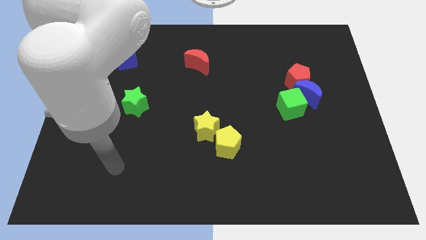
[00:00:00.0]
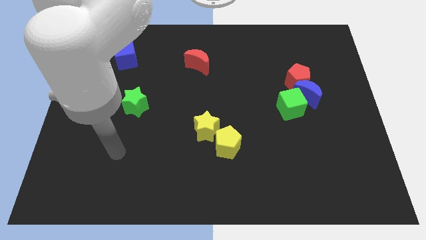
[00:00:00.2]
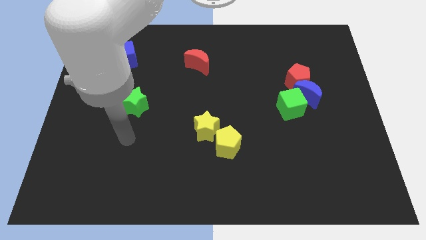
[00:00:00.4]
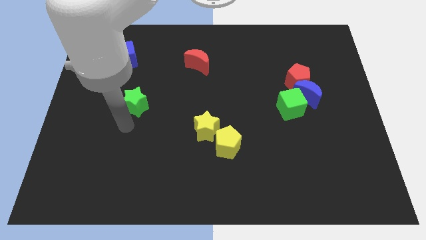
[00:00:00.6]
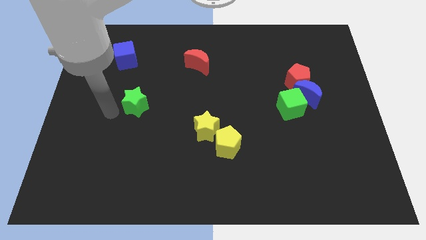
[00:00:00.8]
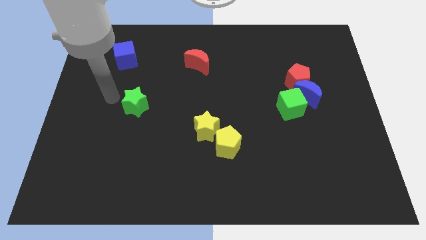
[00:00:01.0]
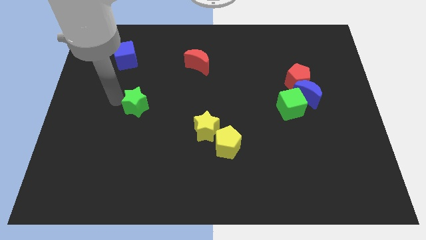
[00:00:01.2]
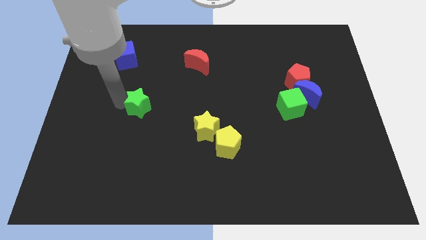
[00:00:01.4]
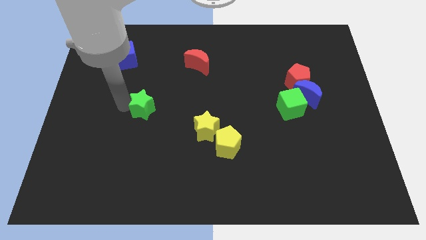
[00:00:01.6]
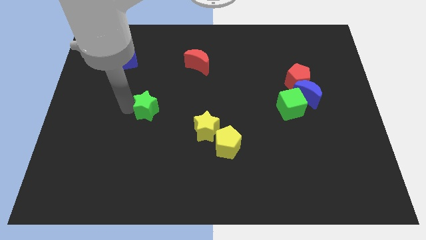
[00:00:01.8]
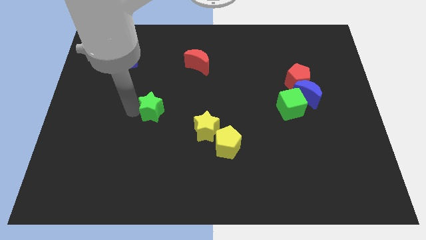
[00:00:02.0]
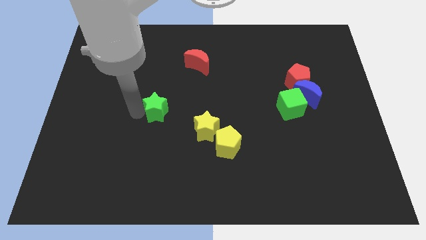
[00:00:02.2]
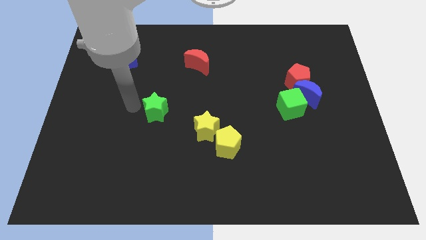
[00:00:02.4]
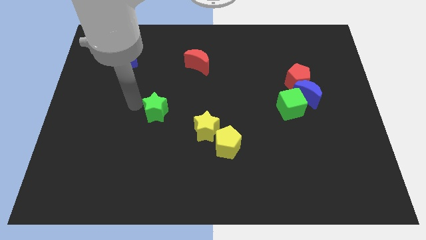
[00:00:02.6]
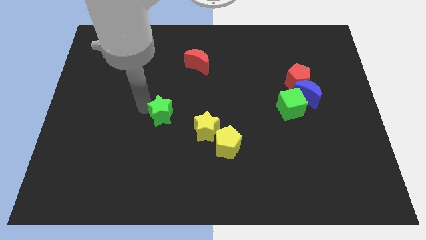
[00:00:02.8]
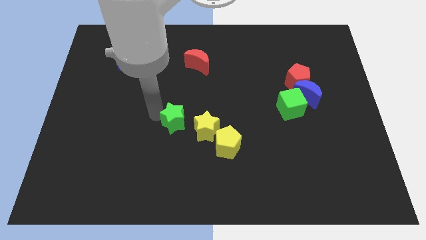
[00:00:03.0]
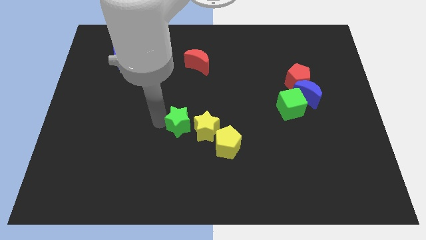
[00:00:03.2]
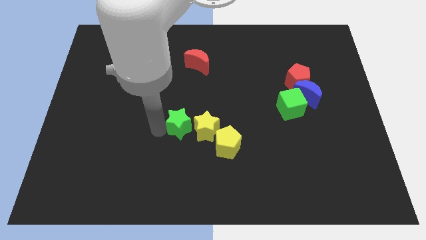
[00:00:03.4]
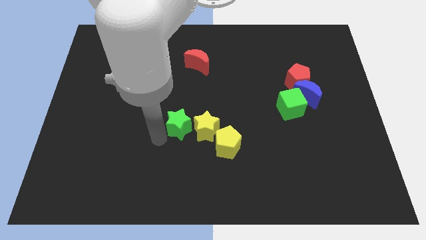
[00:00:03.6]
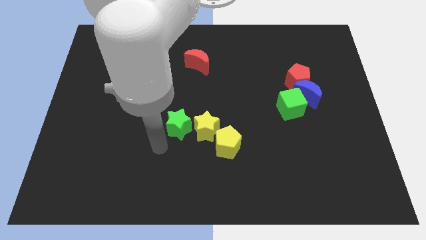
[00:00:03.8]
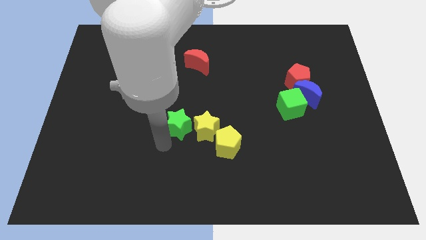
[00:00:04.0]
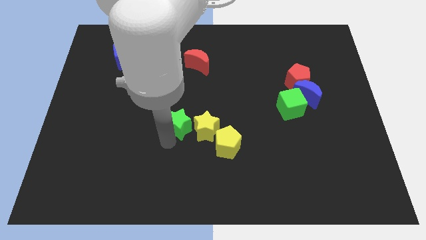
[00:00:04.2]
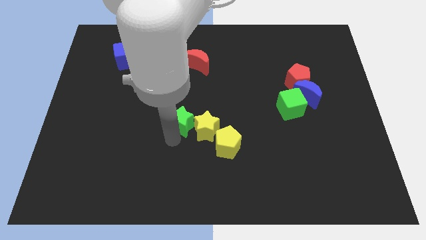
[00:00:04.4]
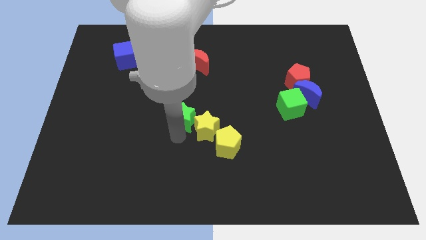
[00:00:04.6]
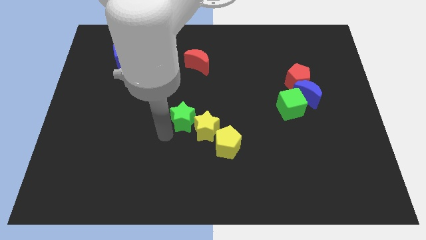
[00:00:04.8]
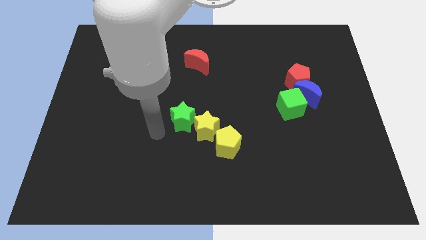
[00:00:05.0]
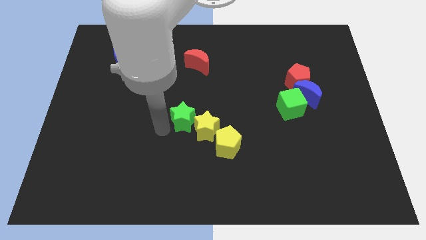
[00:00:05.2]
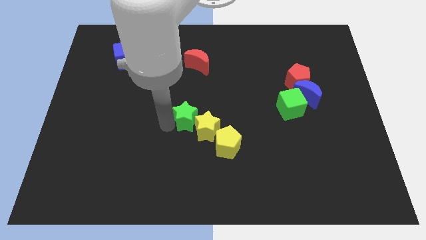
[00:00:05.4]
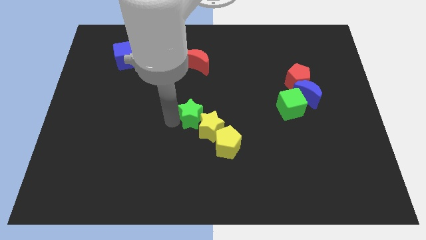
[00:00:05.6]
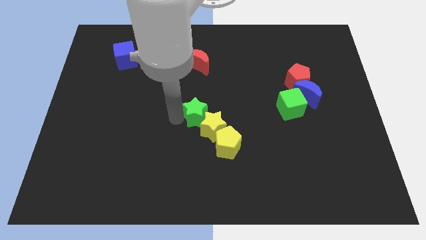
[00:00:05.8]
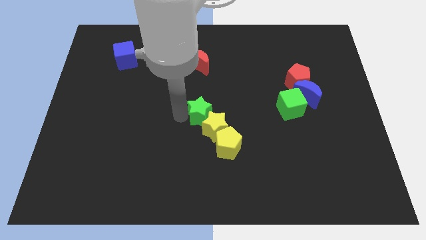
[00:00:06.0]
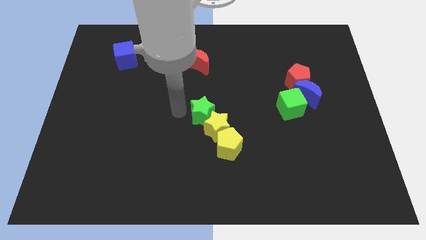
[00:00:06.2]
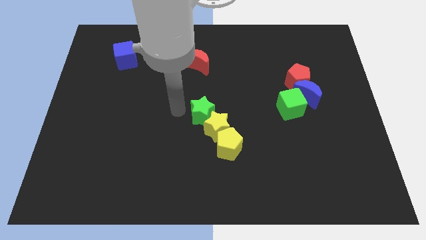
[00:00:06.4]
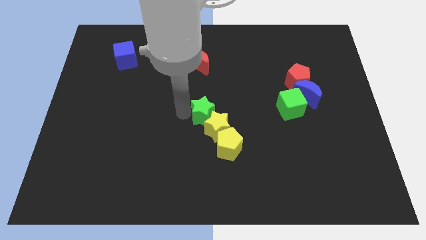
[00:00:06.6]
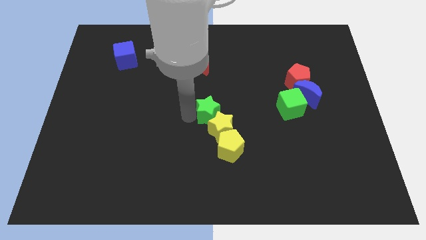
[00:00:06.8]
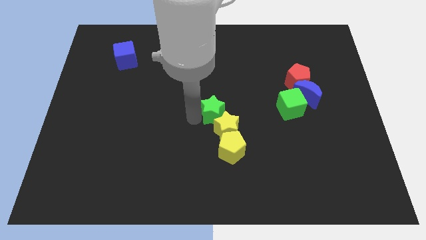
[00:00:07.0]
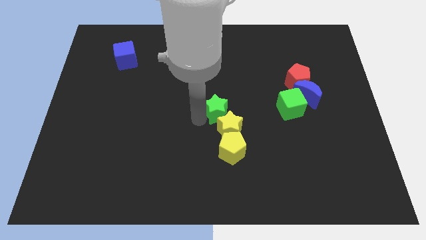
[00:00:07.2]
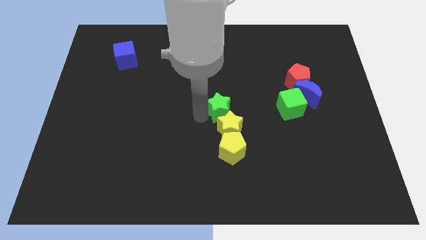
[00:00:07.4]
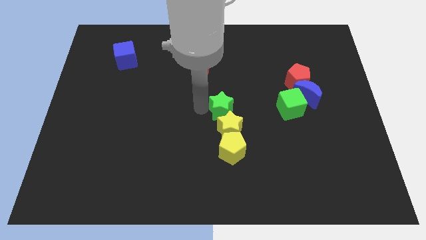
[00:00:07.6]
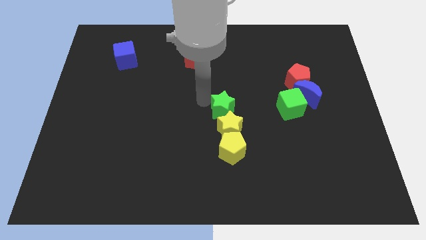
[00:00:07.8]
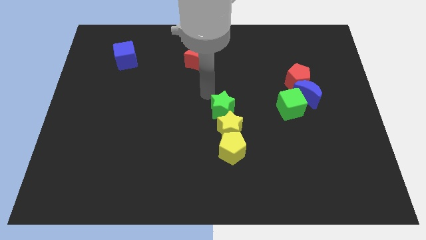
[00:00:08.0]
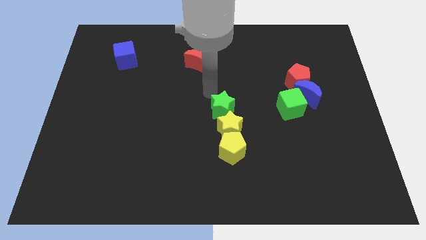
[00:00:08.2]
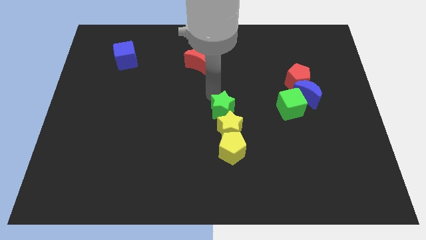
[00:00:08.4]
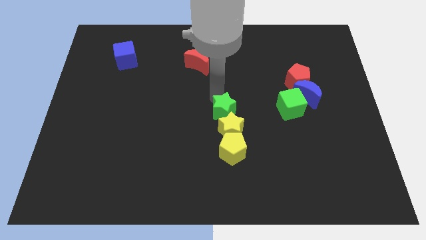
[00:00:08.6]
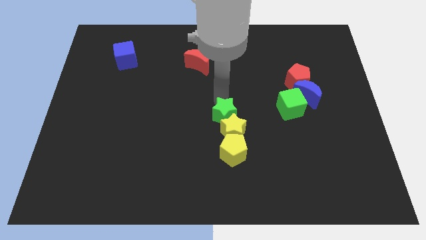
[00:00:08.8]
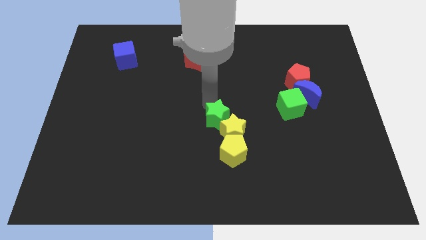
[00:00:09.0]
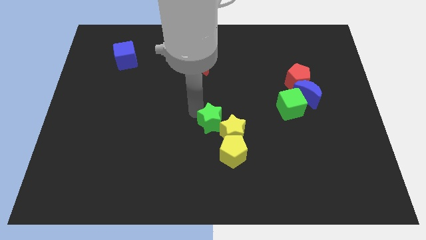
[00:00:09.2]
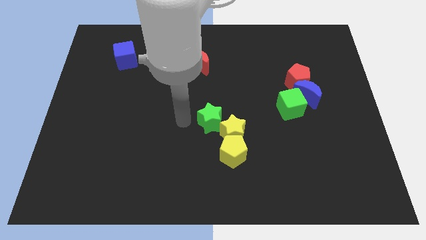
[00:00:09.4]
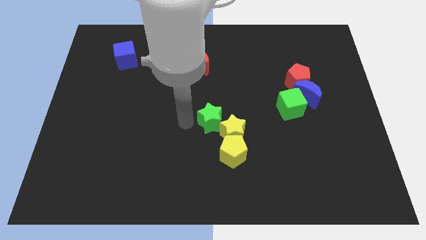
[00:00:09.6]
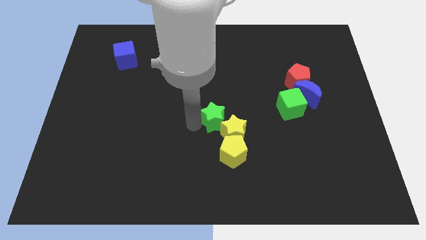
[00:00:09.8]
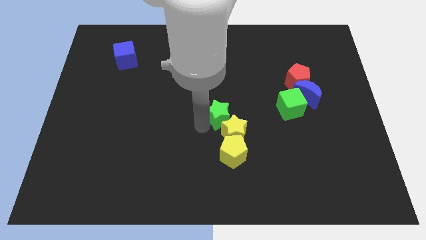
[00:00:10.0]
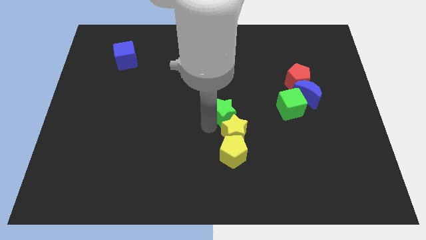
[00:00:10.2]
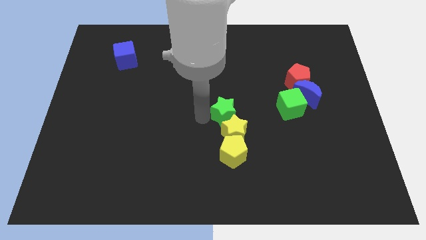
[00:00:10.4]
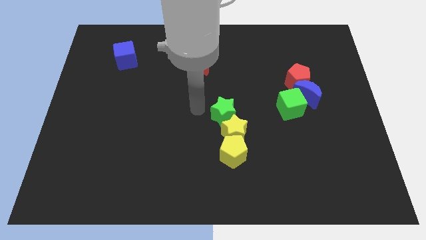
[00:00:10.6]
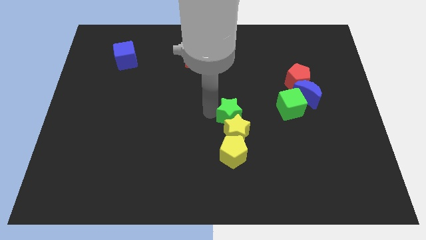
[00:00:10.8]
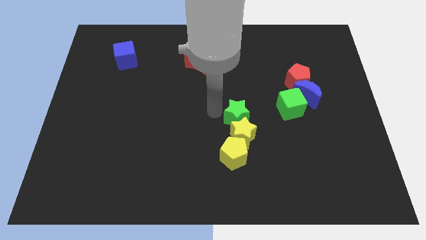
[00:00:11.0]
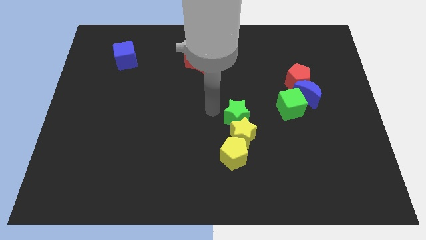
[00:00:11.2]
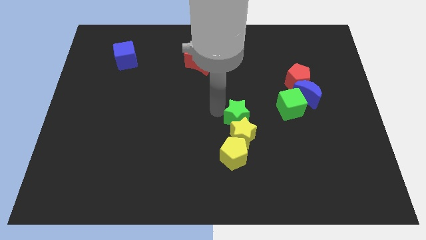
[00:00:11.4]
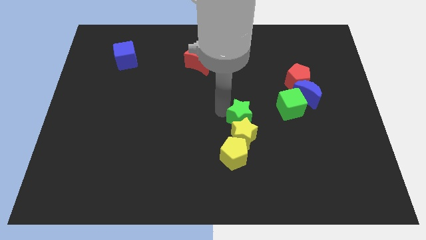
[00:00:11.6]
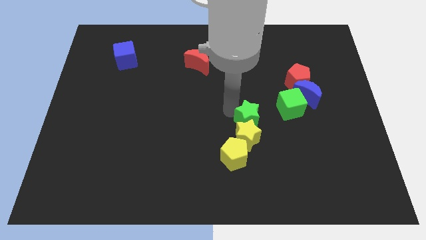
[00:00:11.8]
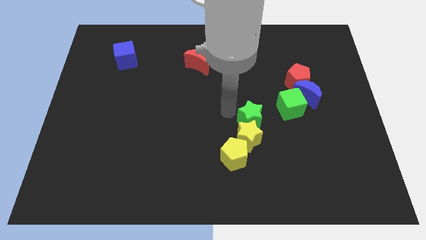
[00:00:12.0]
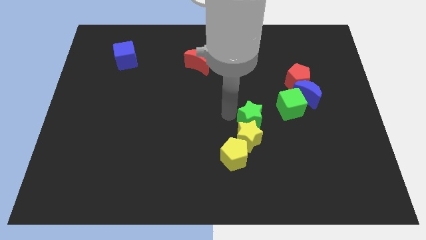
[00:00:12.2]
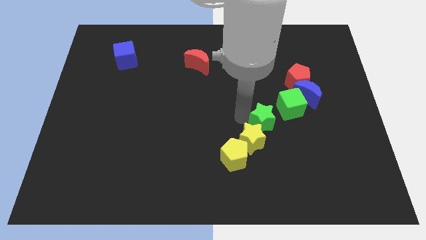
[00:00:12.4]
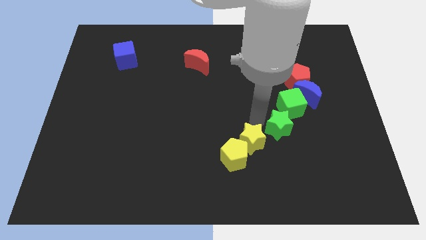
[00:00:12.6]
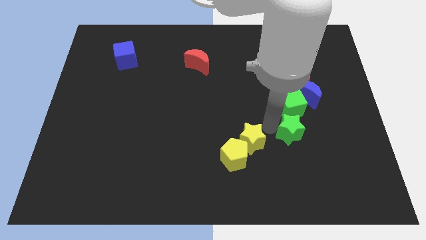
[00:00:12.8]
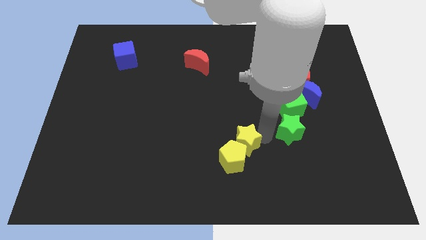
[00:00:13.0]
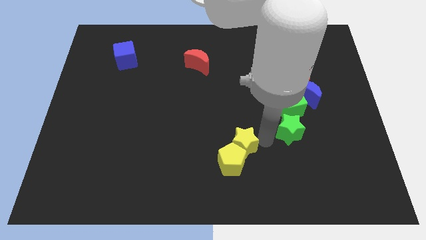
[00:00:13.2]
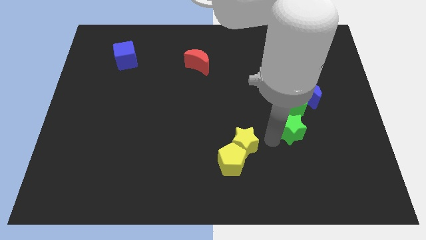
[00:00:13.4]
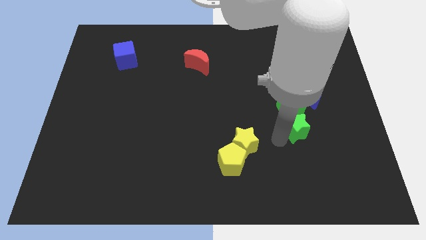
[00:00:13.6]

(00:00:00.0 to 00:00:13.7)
put the green star to the bottom right of the green cube

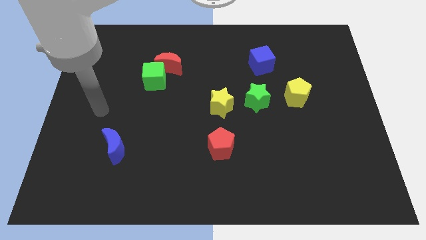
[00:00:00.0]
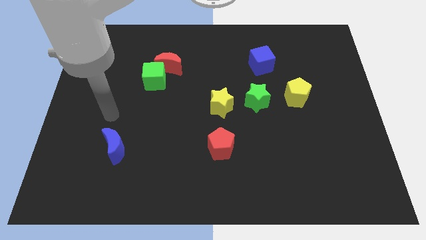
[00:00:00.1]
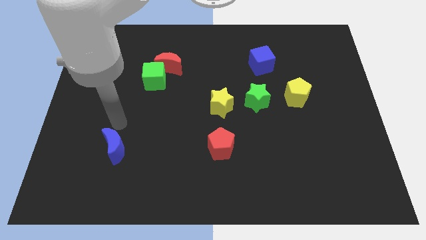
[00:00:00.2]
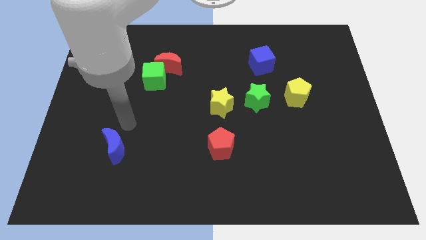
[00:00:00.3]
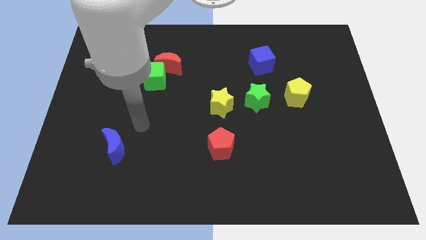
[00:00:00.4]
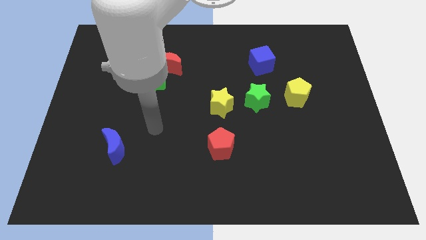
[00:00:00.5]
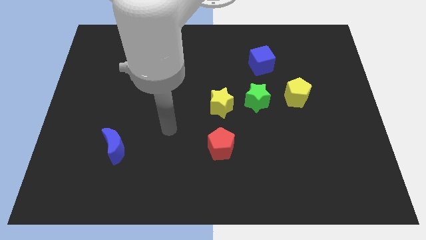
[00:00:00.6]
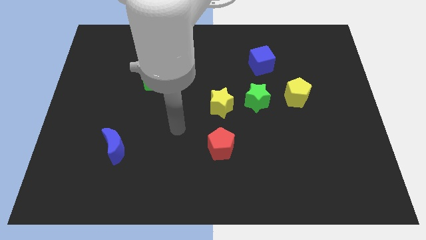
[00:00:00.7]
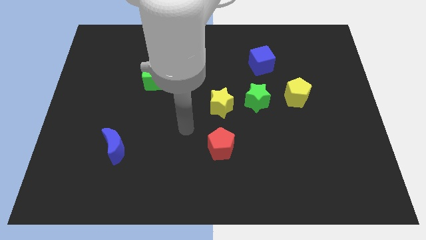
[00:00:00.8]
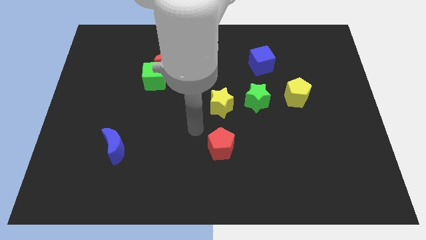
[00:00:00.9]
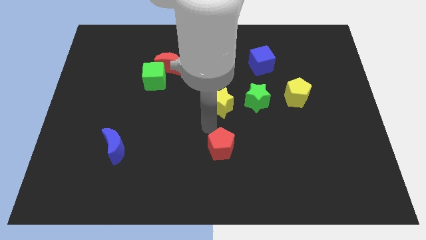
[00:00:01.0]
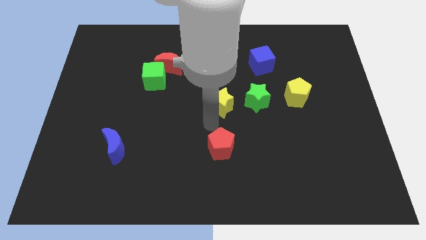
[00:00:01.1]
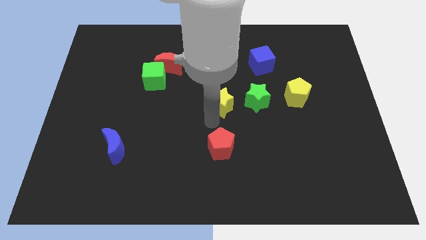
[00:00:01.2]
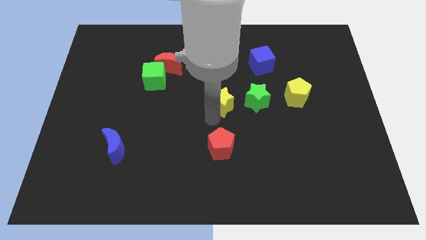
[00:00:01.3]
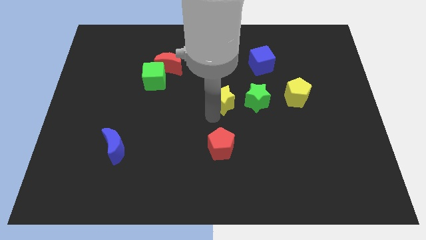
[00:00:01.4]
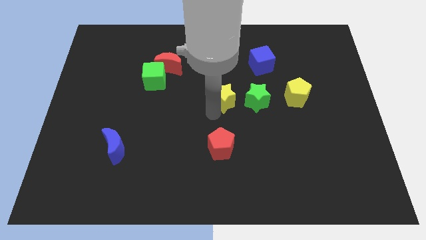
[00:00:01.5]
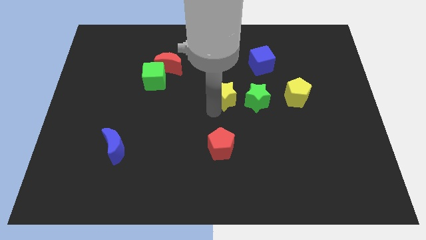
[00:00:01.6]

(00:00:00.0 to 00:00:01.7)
slide the yellow star to the top left side of the green star
